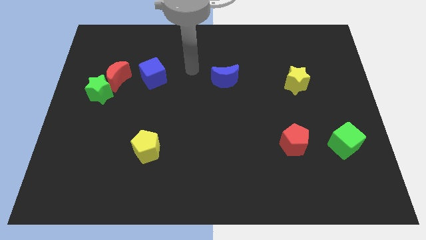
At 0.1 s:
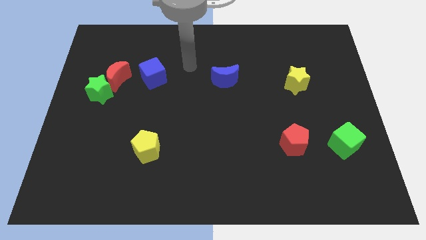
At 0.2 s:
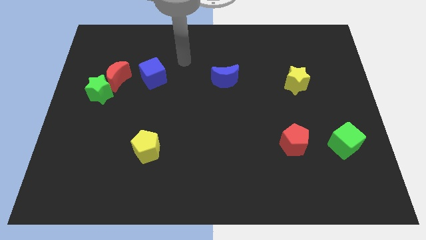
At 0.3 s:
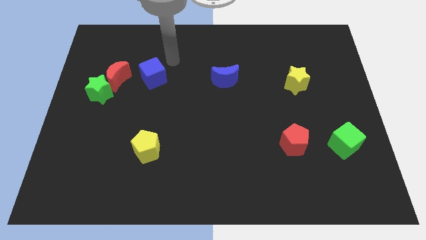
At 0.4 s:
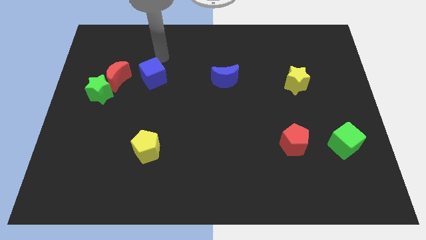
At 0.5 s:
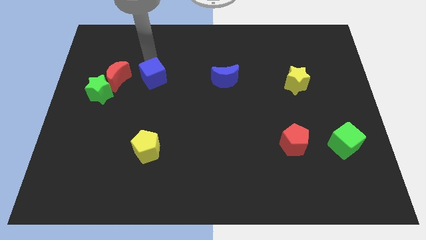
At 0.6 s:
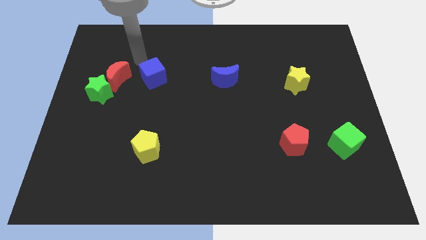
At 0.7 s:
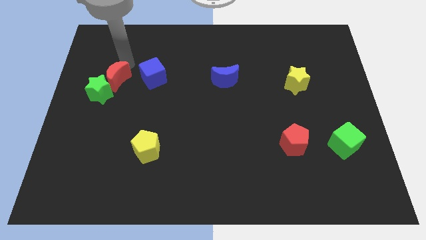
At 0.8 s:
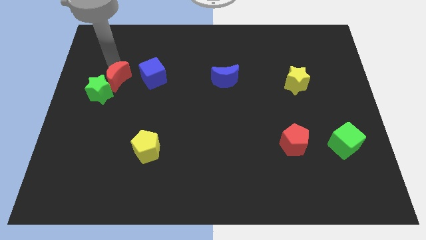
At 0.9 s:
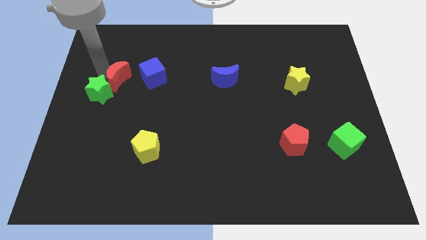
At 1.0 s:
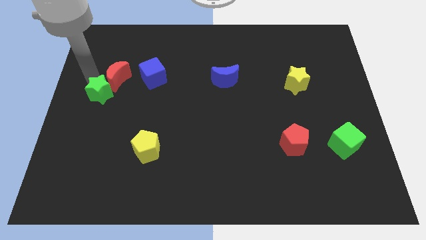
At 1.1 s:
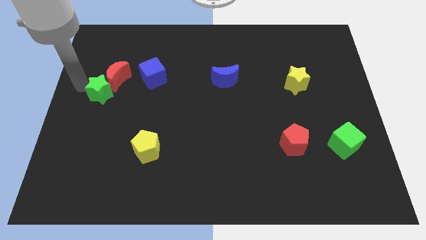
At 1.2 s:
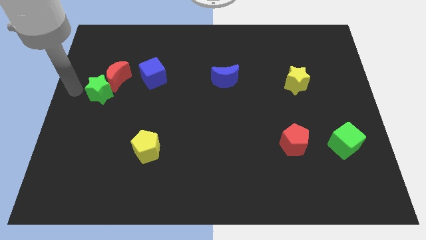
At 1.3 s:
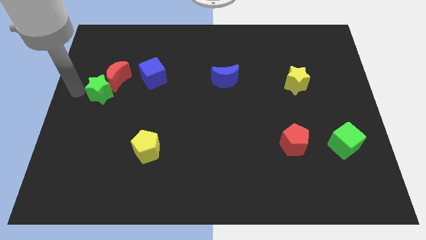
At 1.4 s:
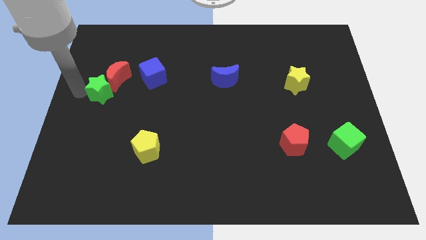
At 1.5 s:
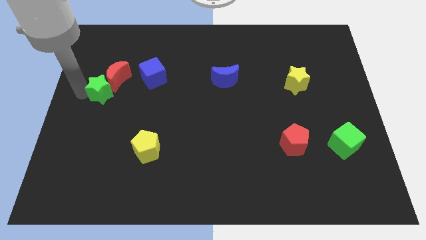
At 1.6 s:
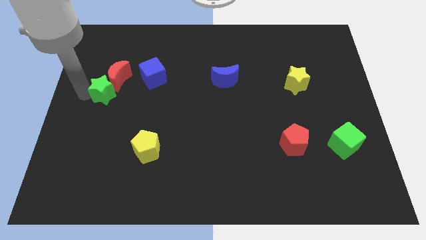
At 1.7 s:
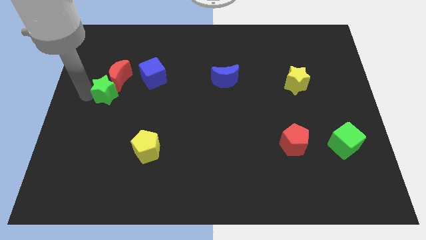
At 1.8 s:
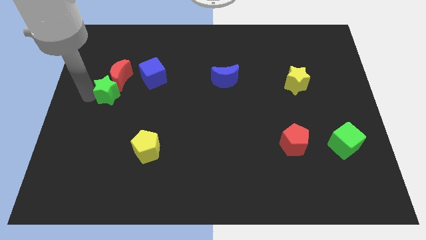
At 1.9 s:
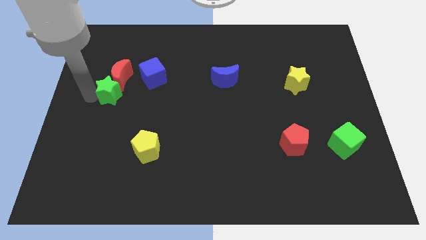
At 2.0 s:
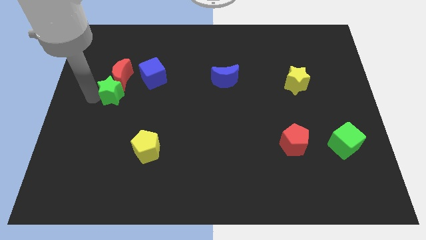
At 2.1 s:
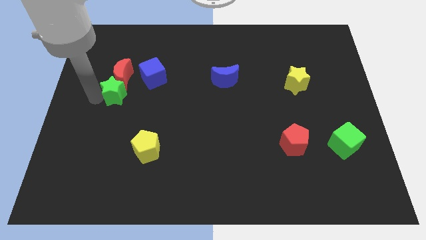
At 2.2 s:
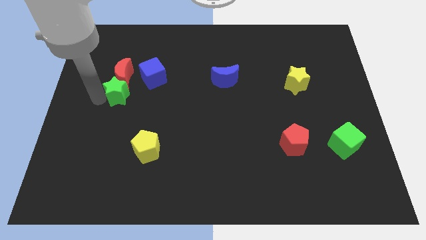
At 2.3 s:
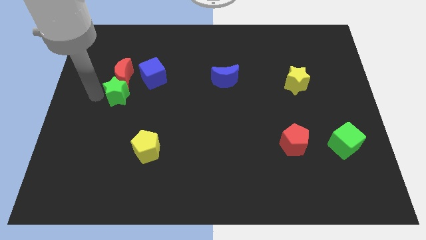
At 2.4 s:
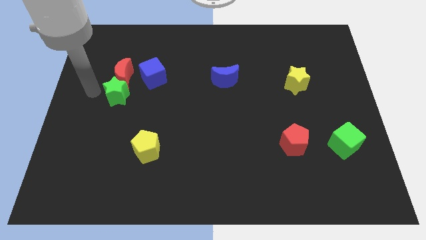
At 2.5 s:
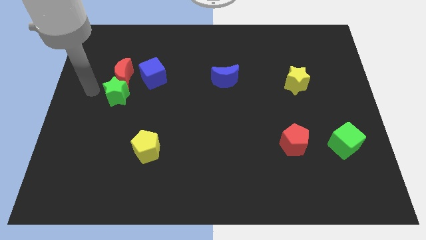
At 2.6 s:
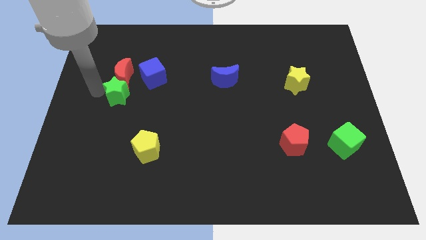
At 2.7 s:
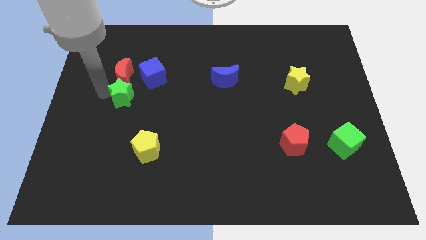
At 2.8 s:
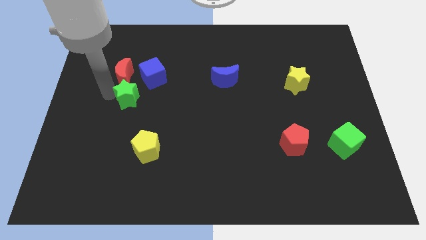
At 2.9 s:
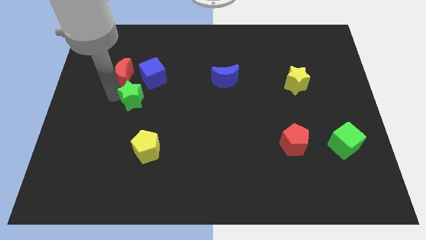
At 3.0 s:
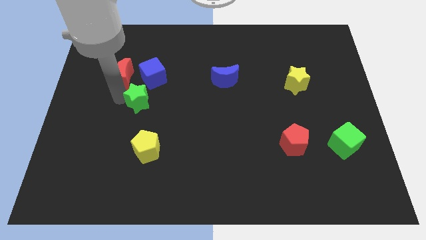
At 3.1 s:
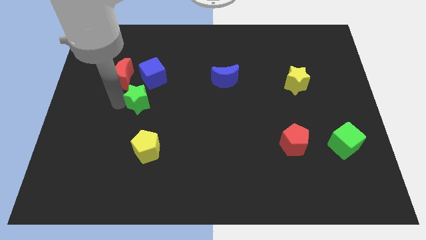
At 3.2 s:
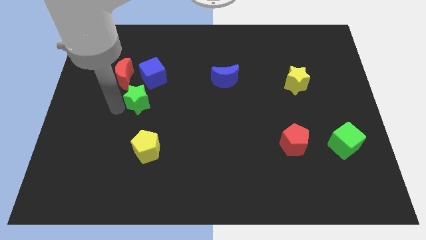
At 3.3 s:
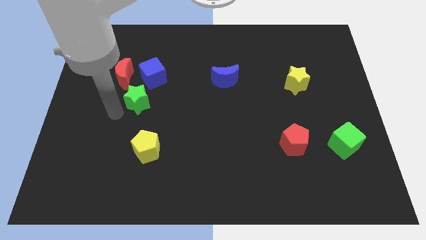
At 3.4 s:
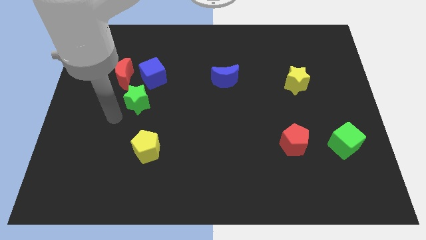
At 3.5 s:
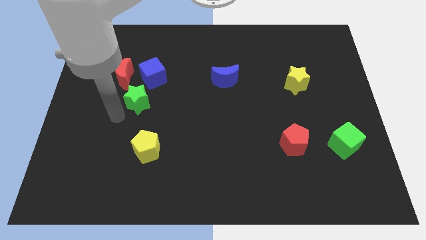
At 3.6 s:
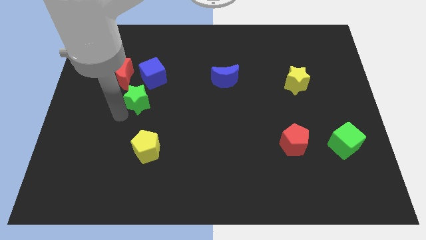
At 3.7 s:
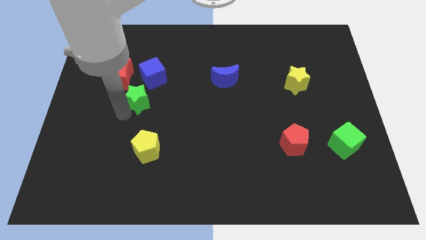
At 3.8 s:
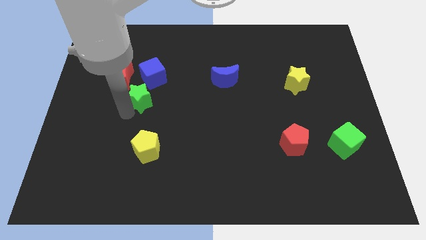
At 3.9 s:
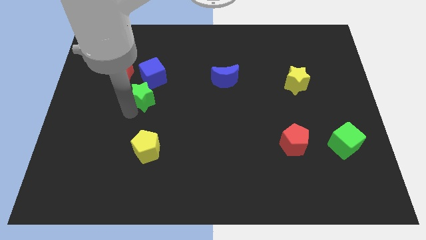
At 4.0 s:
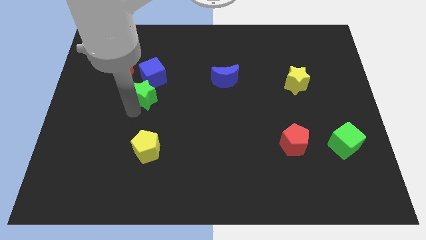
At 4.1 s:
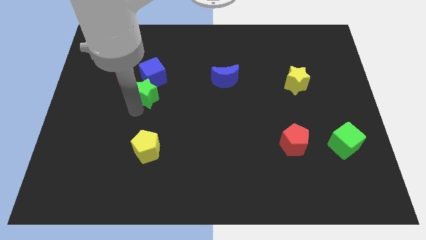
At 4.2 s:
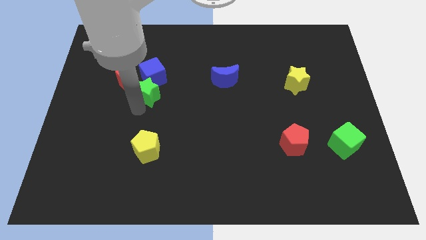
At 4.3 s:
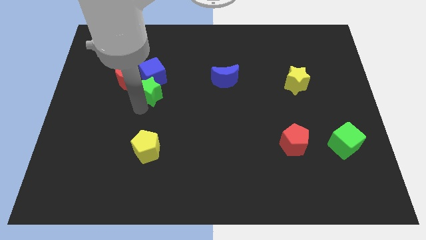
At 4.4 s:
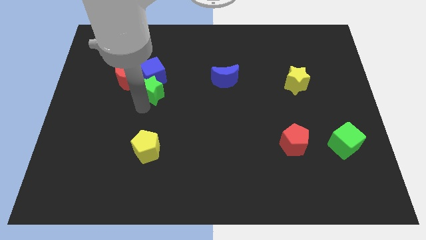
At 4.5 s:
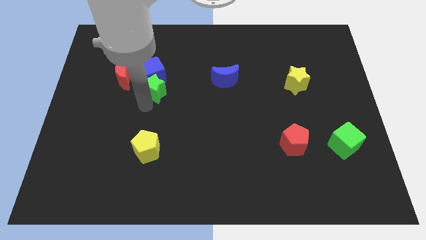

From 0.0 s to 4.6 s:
put the green star just right of the red moon

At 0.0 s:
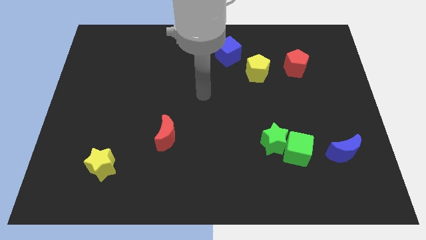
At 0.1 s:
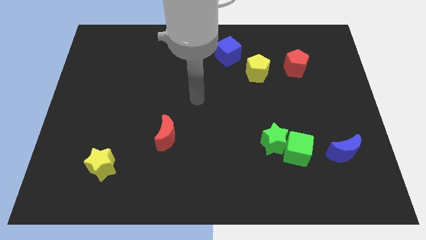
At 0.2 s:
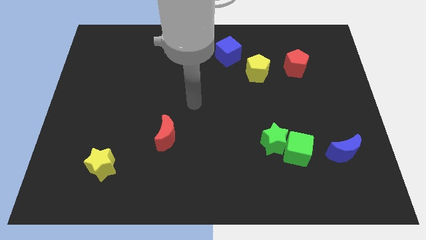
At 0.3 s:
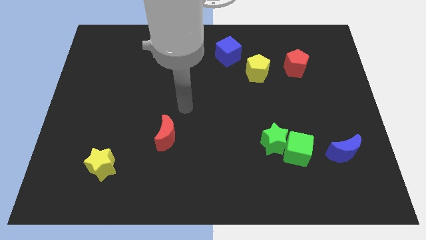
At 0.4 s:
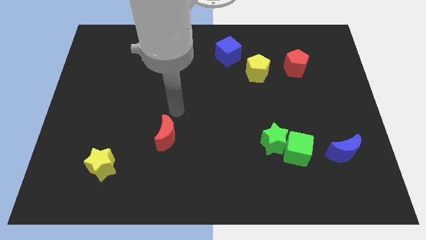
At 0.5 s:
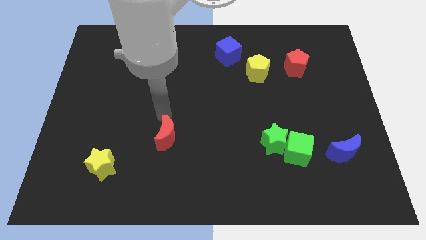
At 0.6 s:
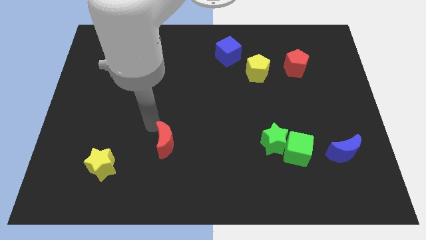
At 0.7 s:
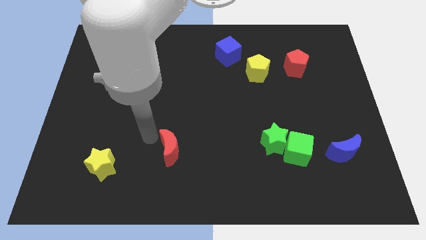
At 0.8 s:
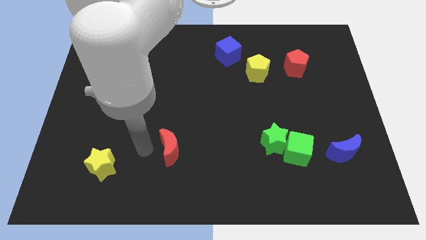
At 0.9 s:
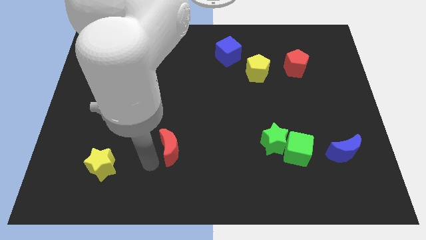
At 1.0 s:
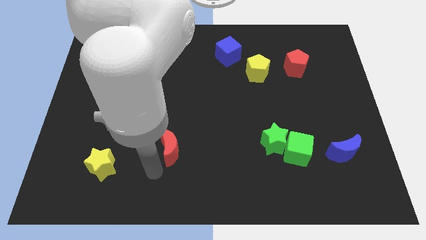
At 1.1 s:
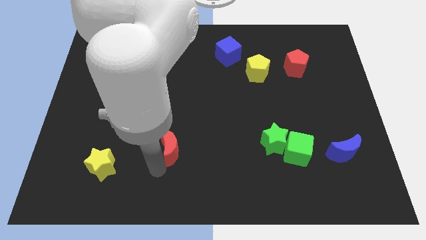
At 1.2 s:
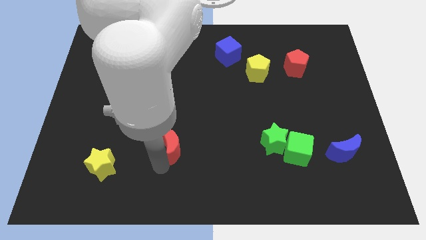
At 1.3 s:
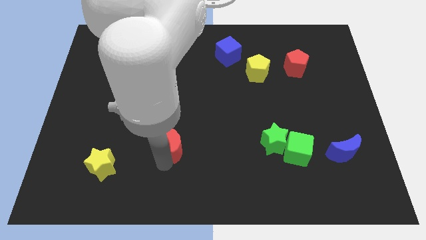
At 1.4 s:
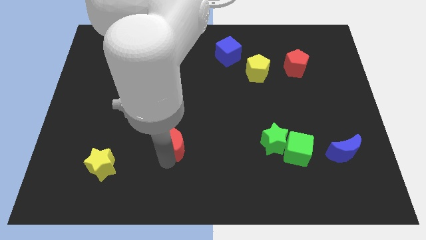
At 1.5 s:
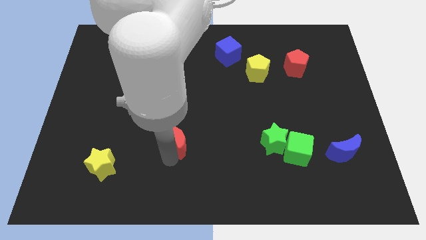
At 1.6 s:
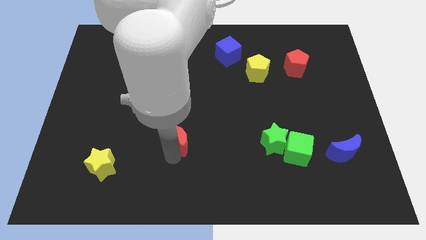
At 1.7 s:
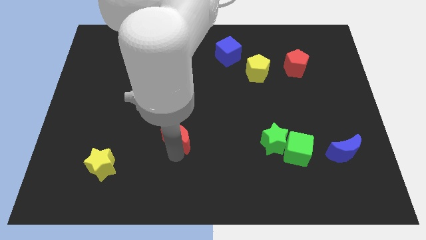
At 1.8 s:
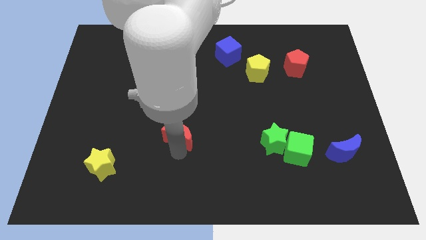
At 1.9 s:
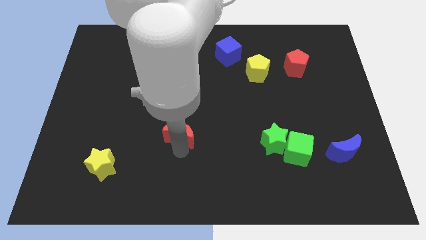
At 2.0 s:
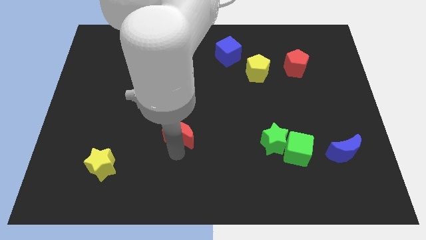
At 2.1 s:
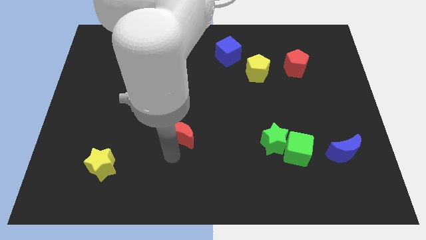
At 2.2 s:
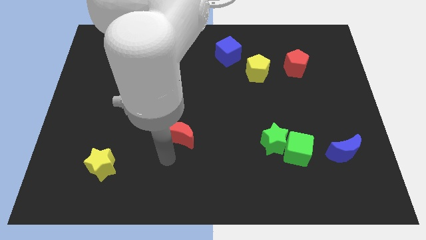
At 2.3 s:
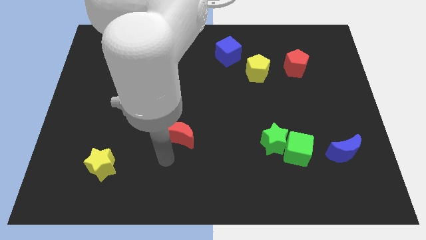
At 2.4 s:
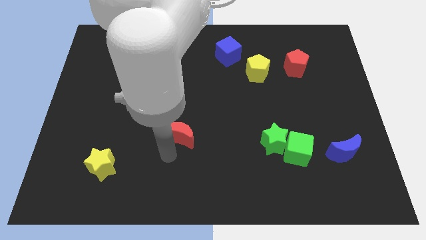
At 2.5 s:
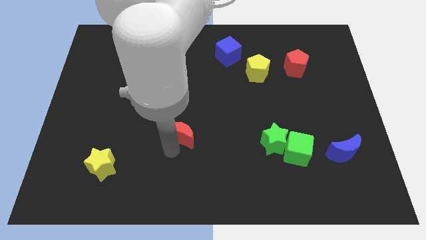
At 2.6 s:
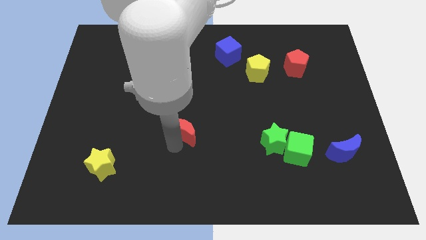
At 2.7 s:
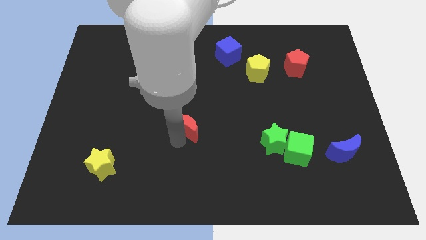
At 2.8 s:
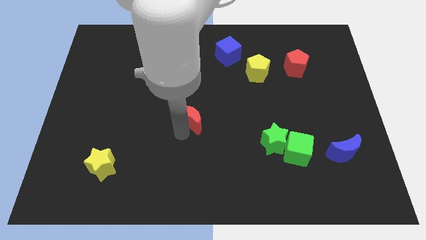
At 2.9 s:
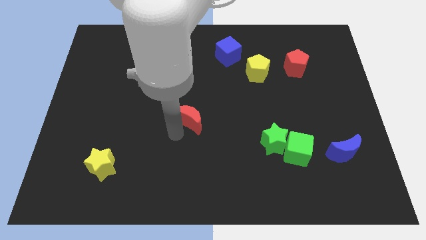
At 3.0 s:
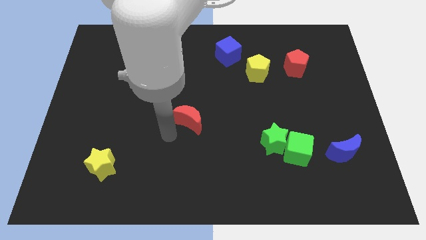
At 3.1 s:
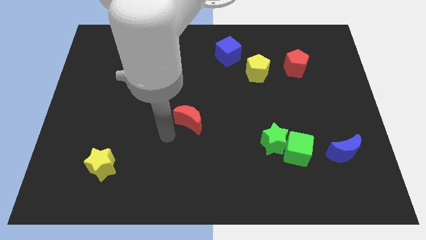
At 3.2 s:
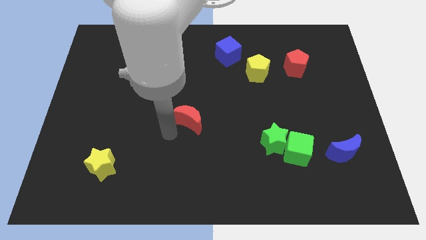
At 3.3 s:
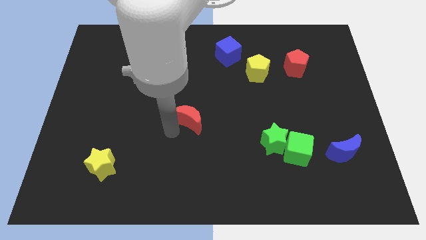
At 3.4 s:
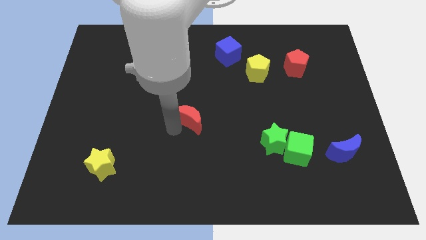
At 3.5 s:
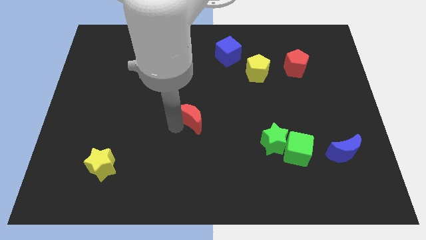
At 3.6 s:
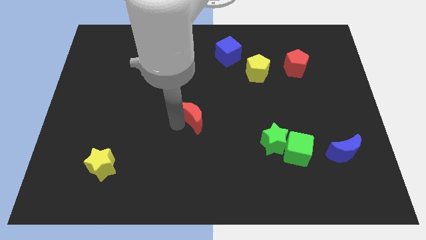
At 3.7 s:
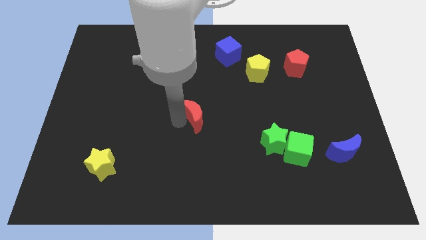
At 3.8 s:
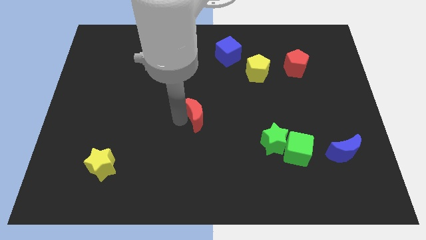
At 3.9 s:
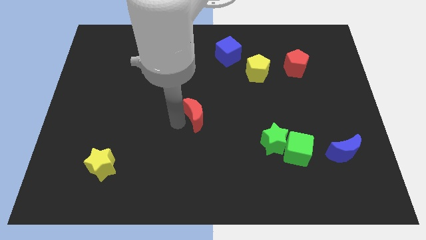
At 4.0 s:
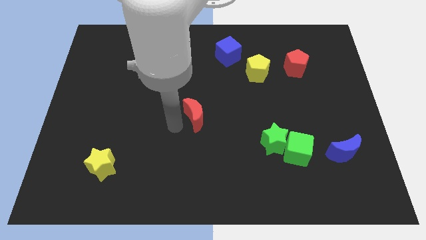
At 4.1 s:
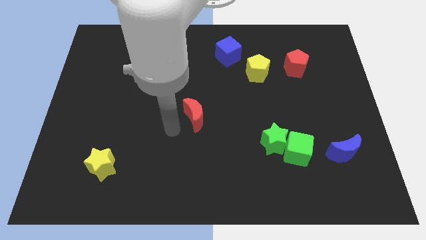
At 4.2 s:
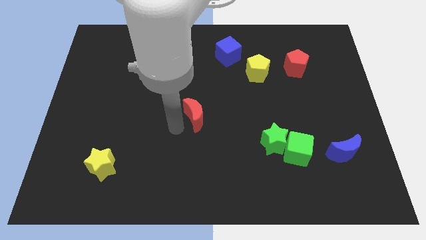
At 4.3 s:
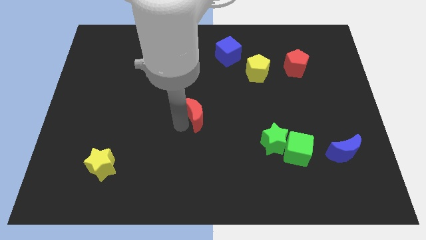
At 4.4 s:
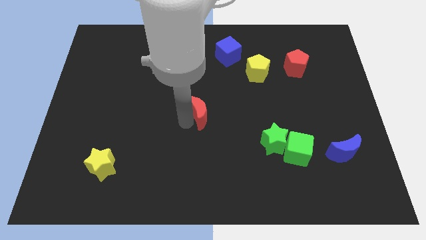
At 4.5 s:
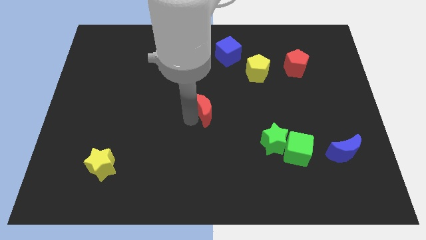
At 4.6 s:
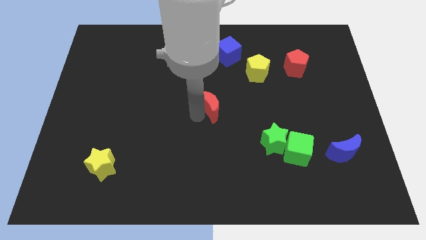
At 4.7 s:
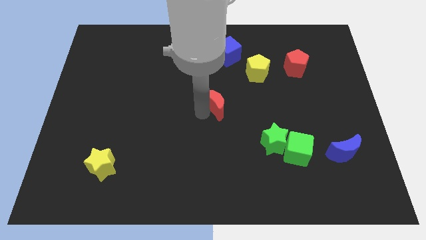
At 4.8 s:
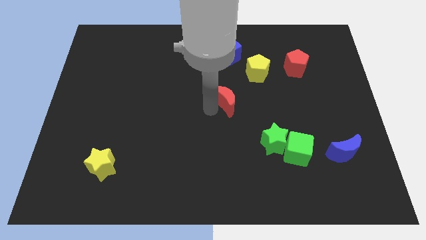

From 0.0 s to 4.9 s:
move the red moon to the bottom left of the yellow pentagon
